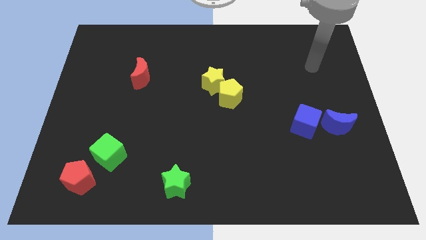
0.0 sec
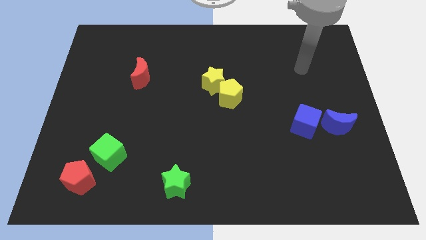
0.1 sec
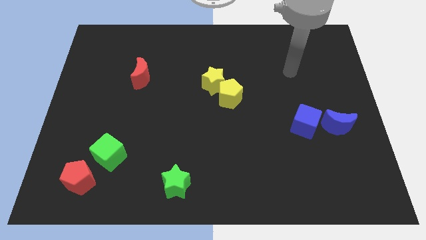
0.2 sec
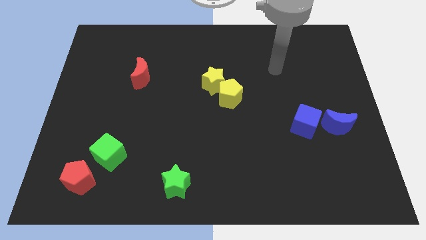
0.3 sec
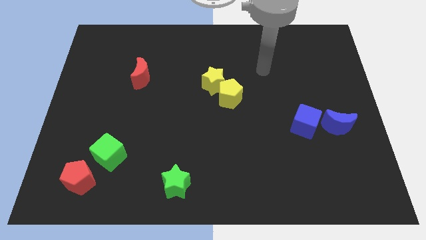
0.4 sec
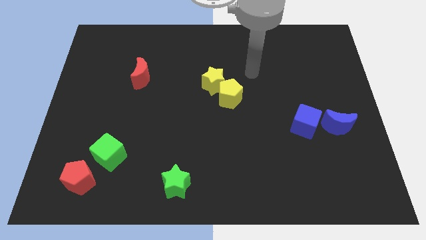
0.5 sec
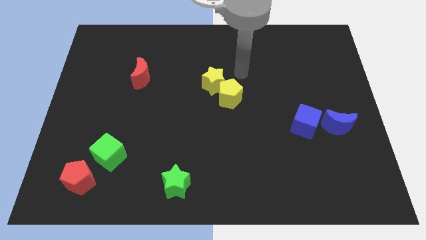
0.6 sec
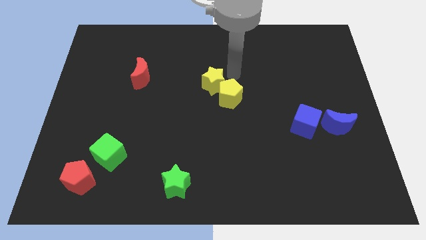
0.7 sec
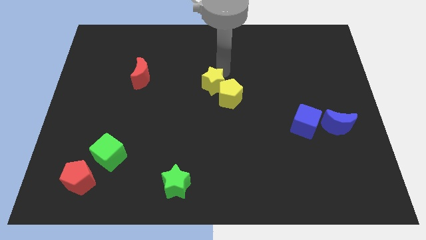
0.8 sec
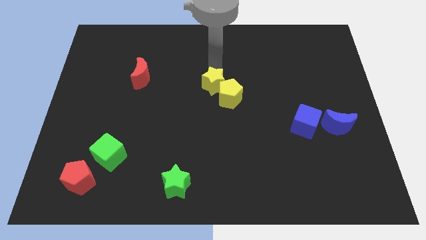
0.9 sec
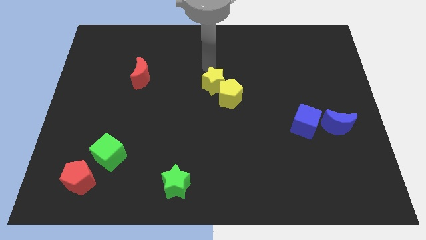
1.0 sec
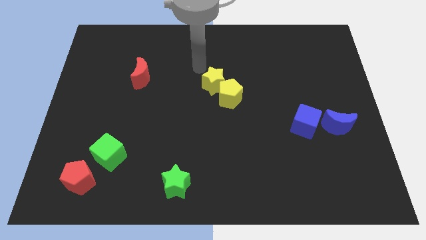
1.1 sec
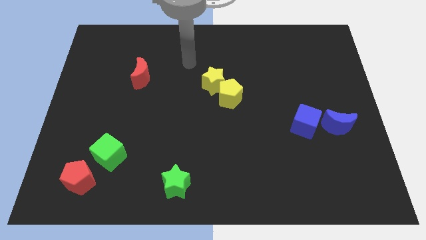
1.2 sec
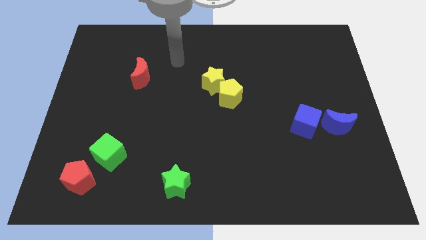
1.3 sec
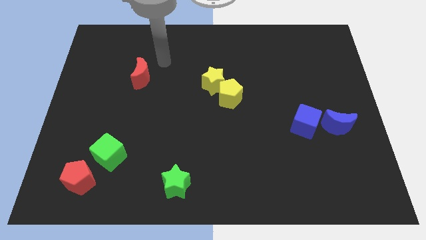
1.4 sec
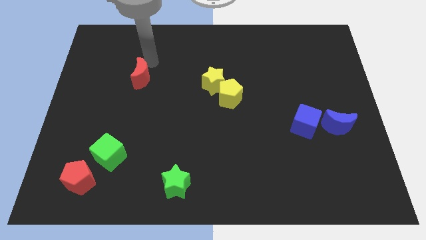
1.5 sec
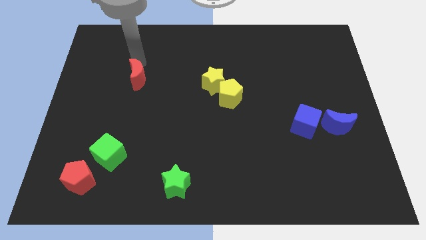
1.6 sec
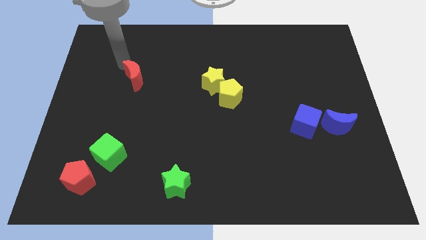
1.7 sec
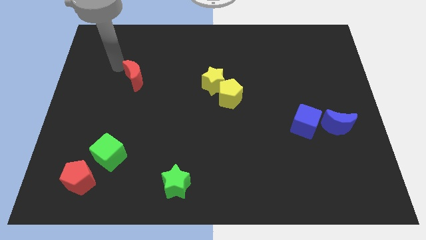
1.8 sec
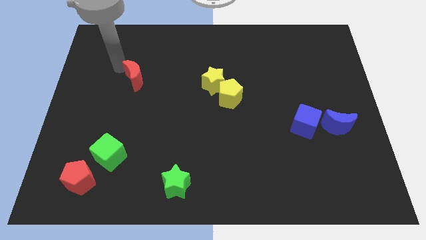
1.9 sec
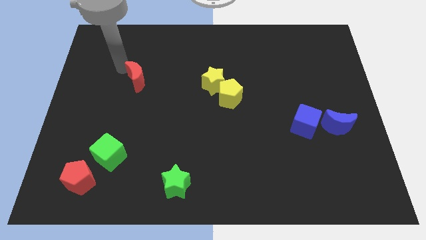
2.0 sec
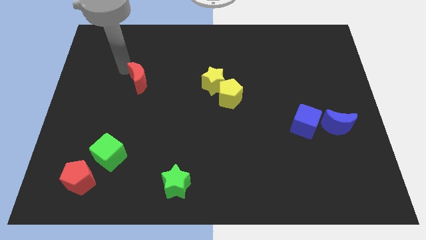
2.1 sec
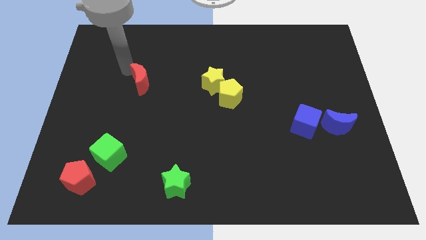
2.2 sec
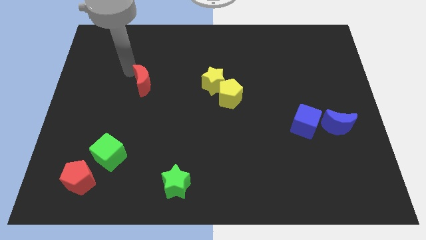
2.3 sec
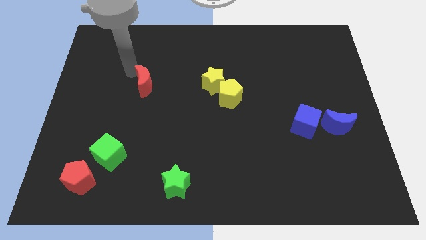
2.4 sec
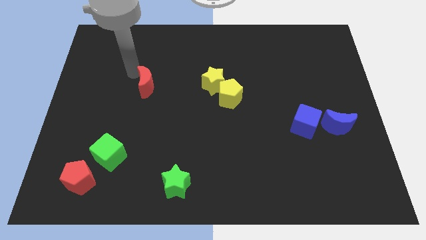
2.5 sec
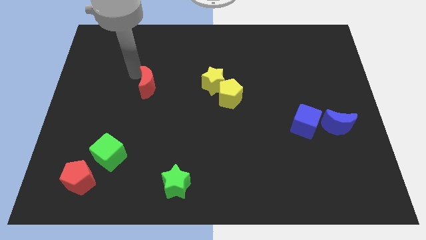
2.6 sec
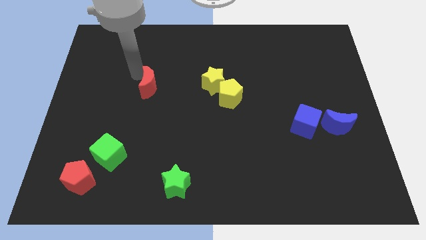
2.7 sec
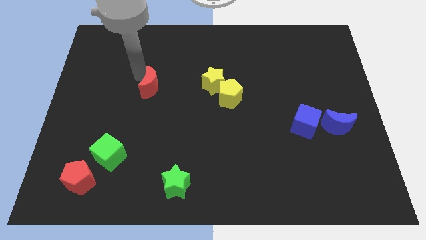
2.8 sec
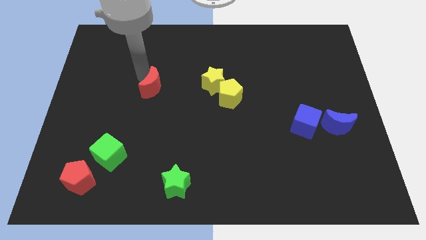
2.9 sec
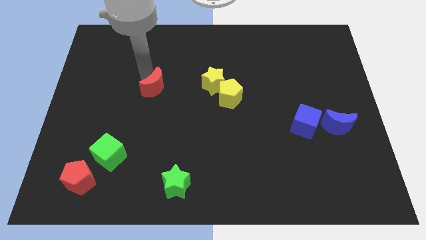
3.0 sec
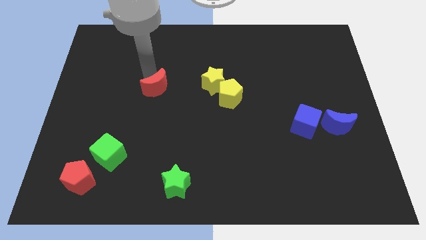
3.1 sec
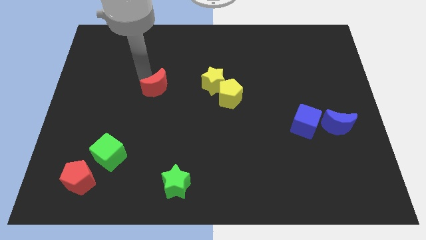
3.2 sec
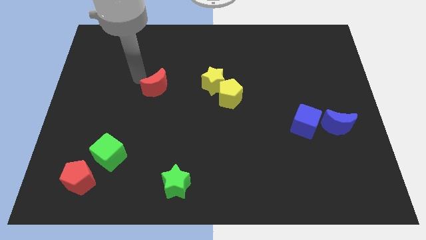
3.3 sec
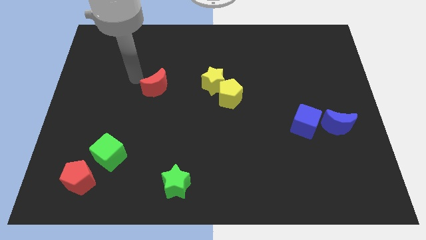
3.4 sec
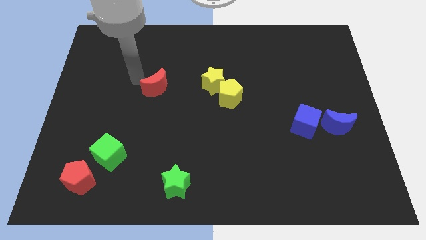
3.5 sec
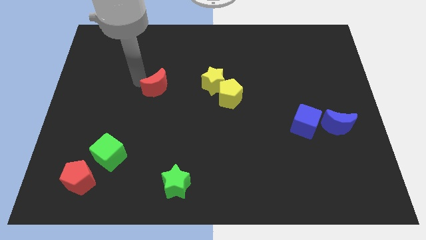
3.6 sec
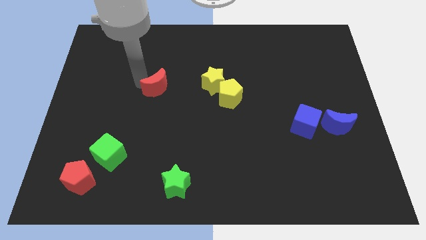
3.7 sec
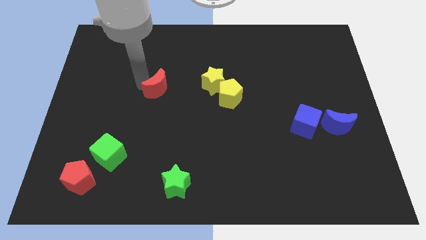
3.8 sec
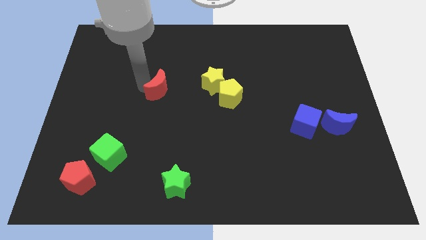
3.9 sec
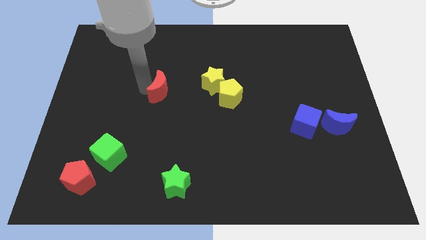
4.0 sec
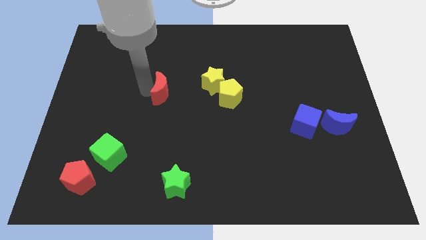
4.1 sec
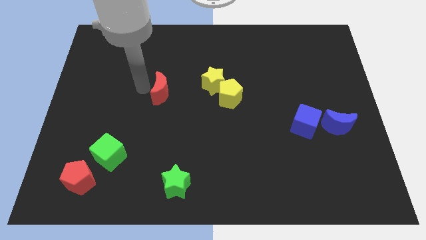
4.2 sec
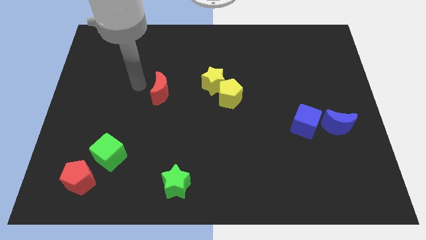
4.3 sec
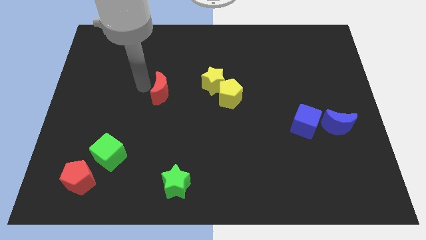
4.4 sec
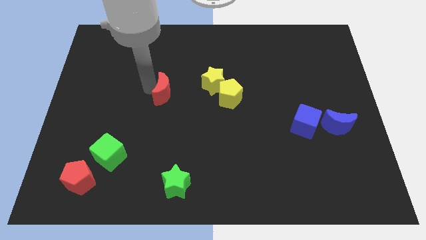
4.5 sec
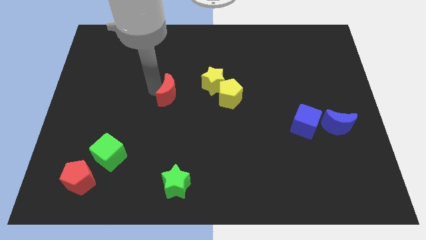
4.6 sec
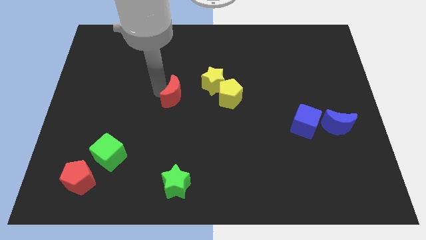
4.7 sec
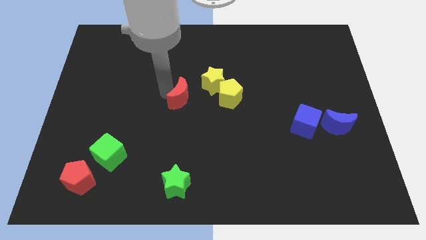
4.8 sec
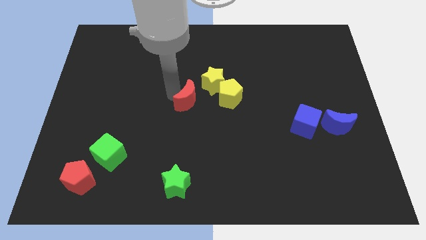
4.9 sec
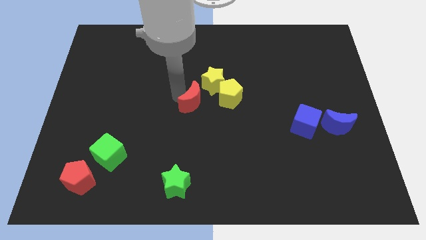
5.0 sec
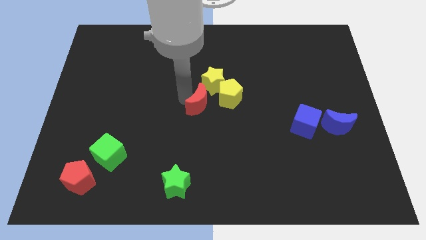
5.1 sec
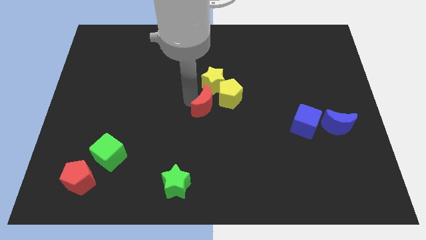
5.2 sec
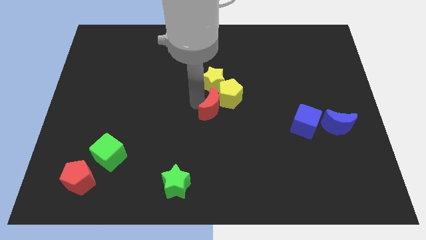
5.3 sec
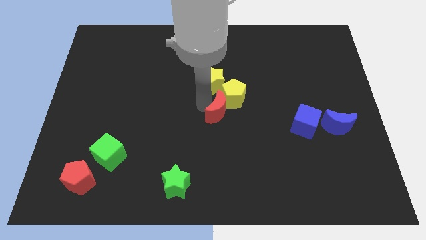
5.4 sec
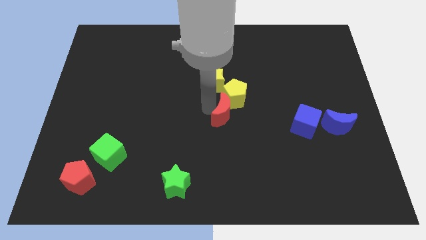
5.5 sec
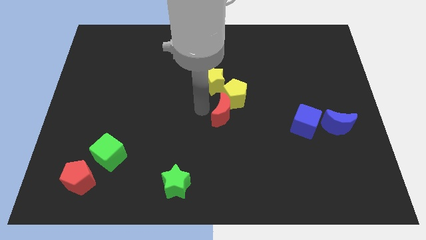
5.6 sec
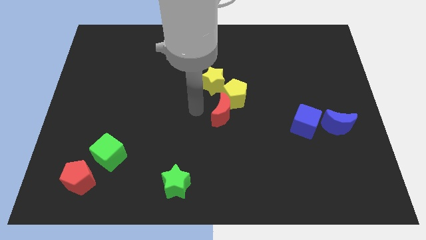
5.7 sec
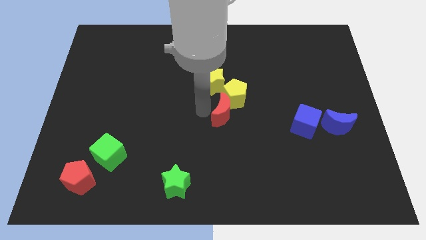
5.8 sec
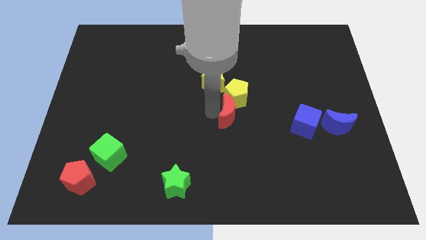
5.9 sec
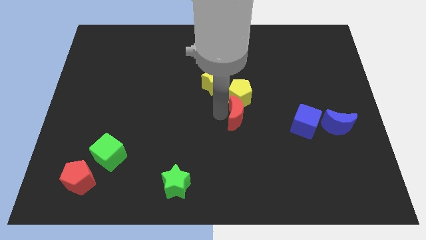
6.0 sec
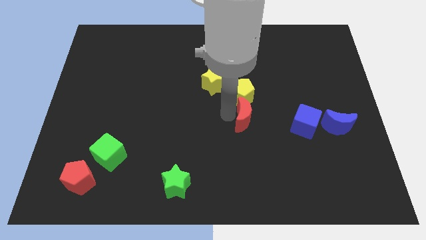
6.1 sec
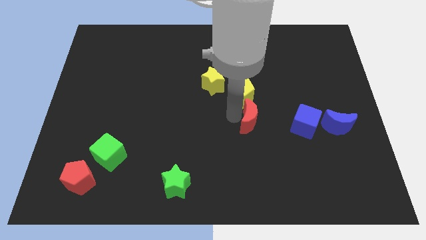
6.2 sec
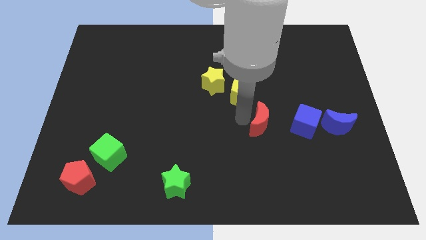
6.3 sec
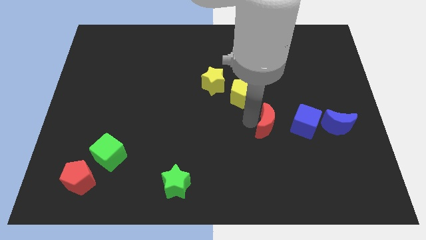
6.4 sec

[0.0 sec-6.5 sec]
slide the red moon left of the blue moon
